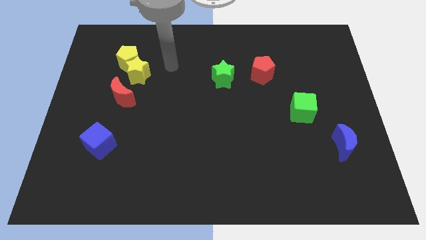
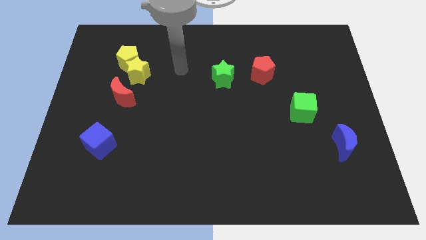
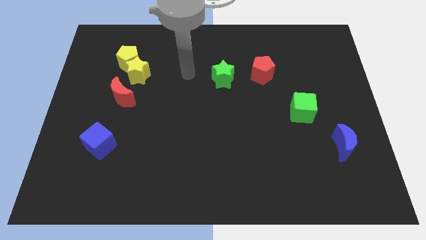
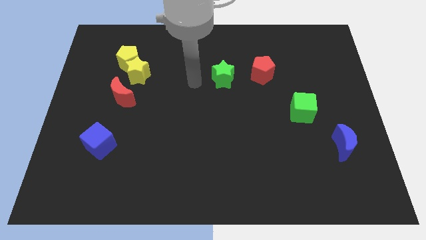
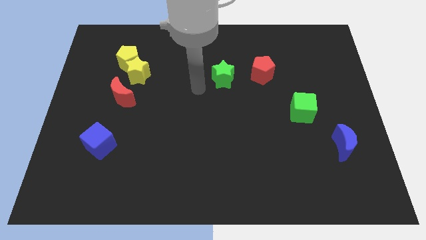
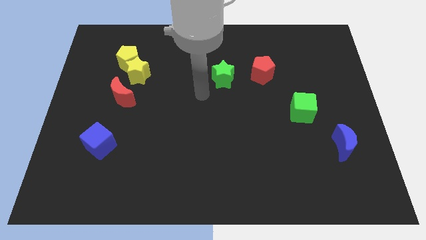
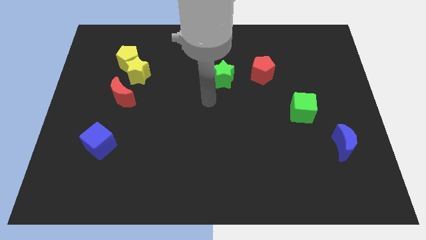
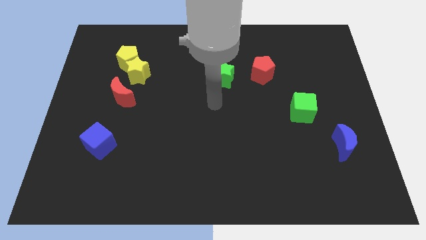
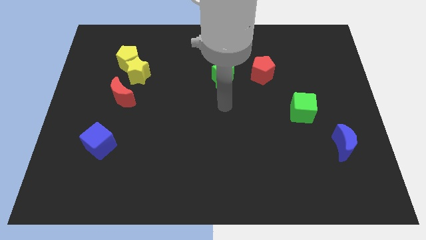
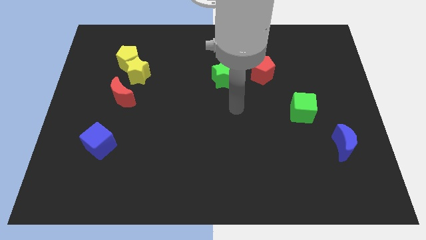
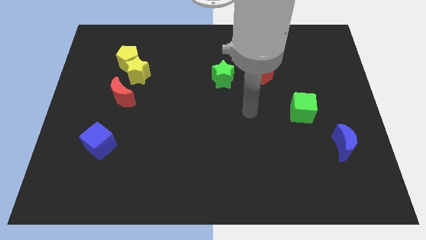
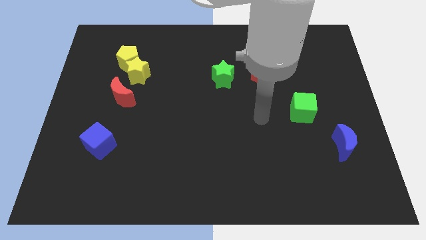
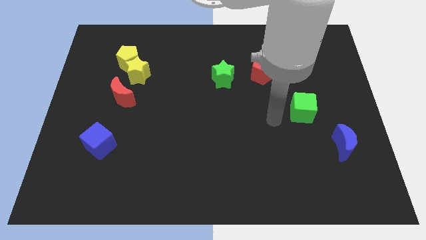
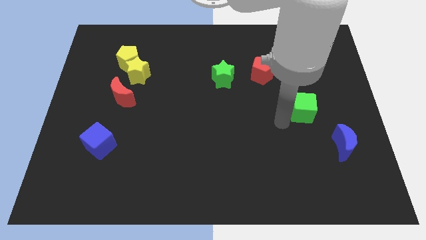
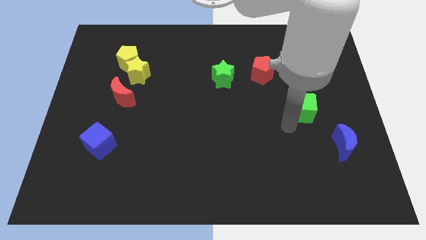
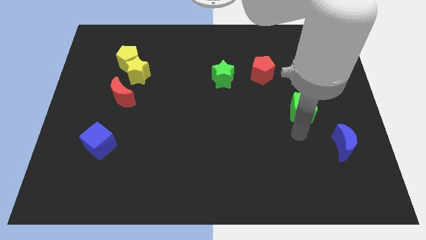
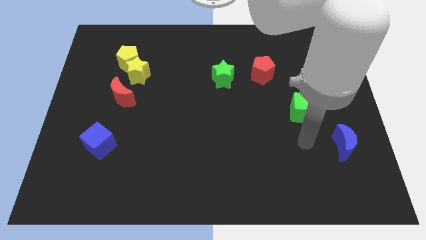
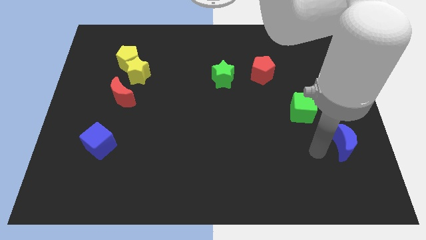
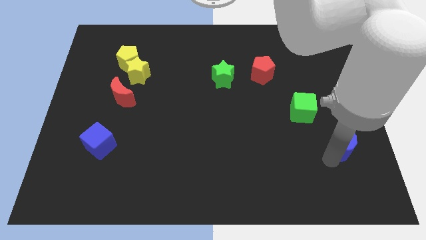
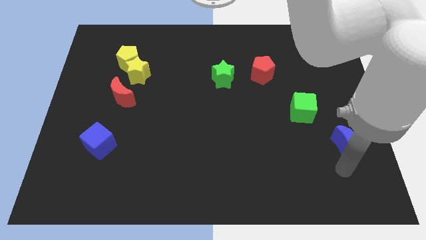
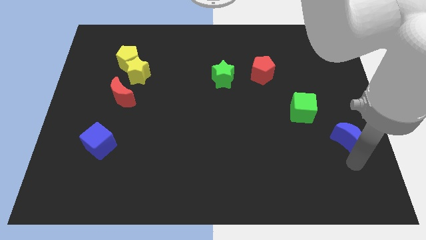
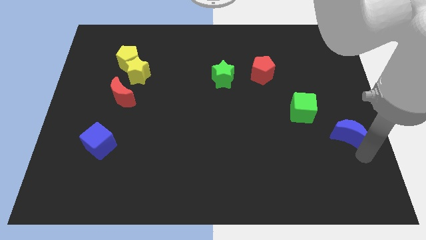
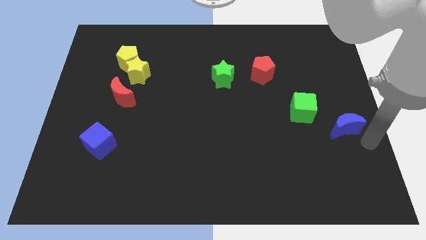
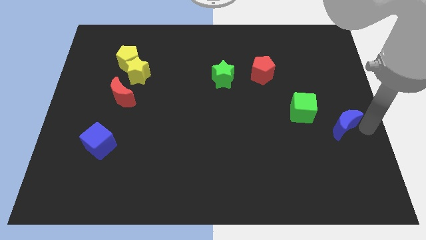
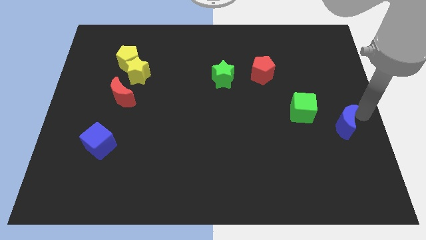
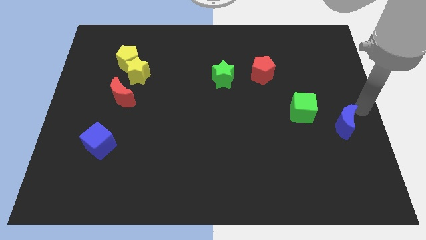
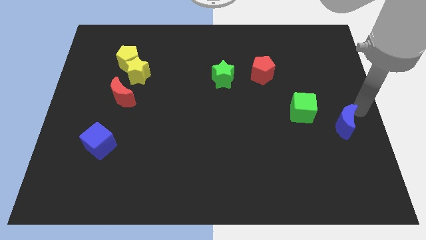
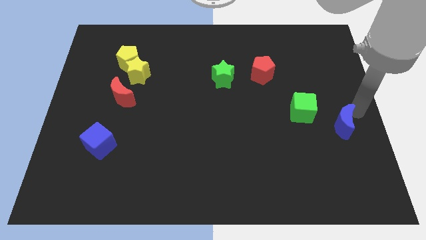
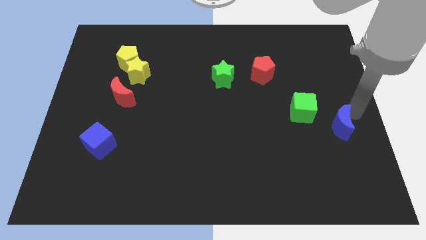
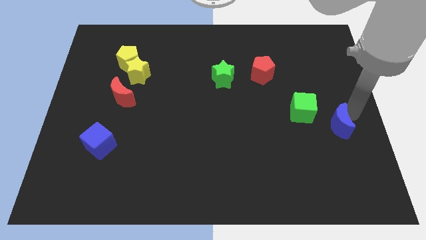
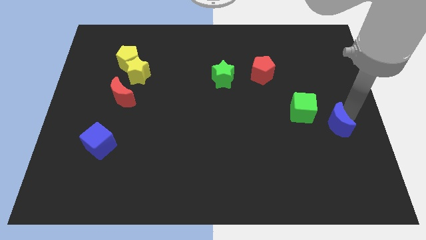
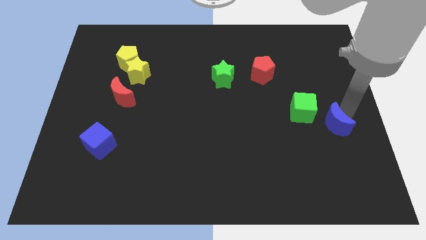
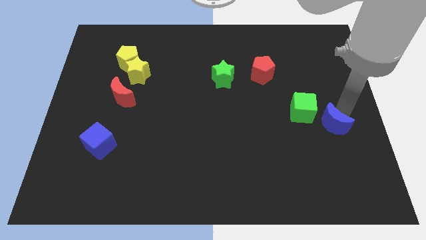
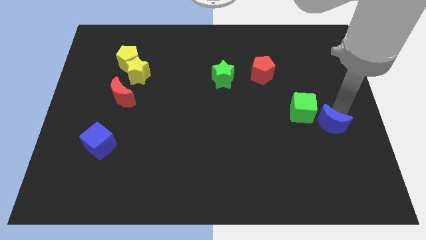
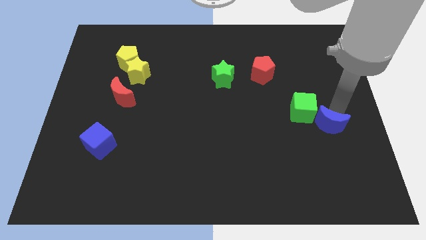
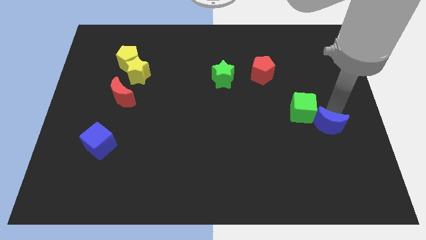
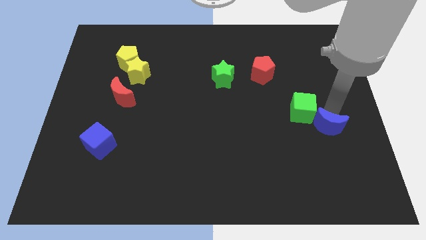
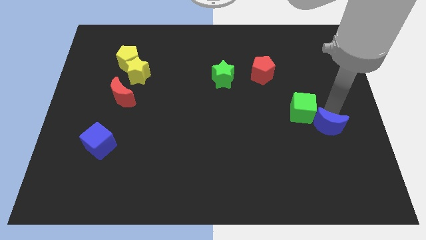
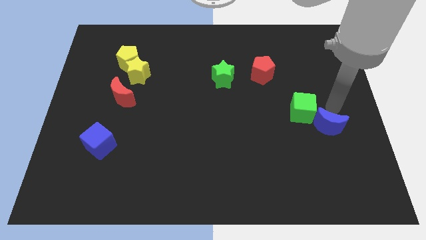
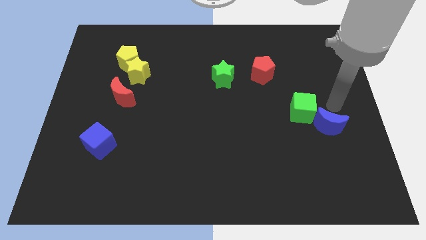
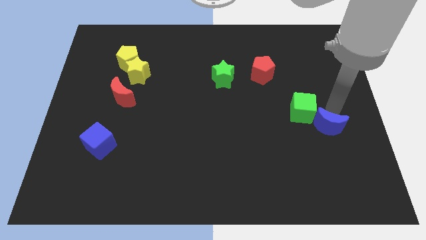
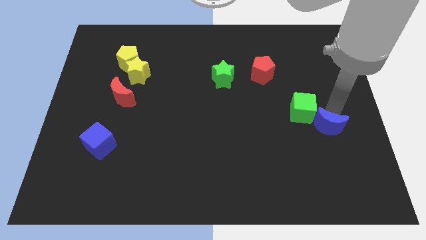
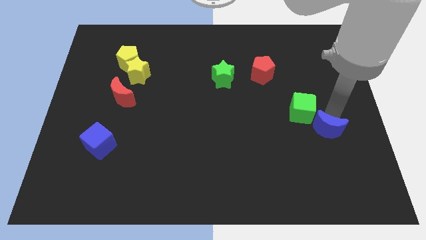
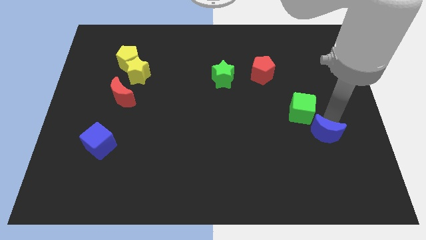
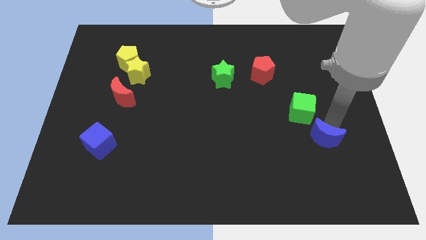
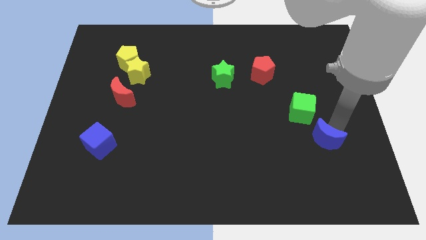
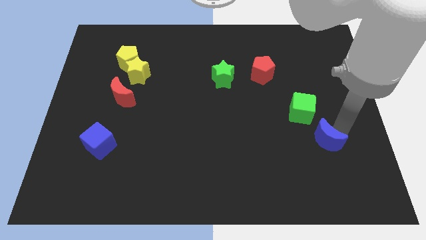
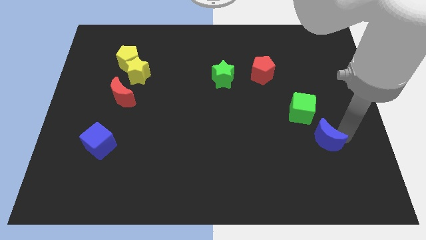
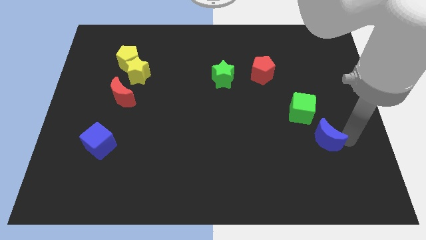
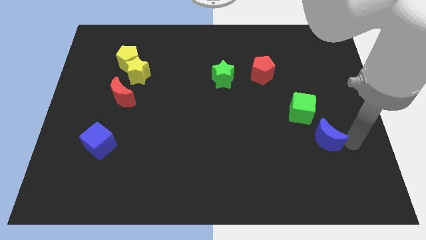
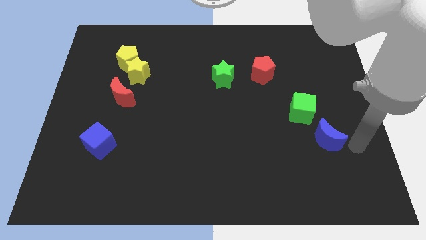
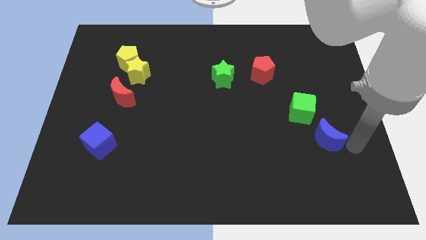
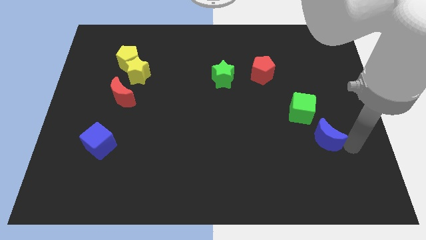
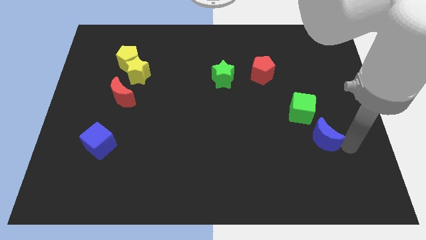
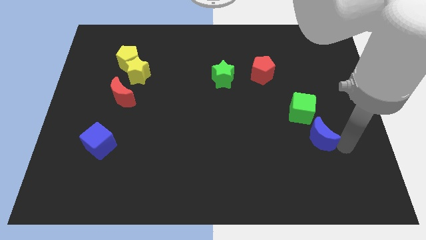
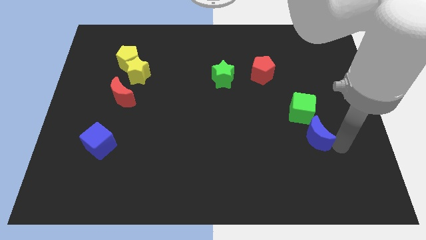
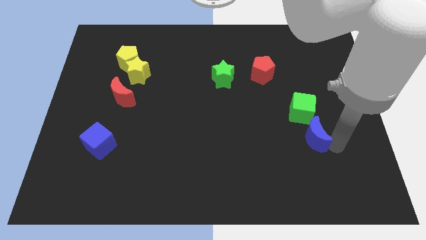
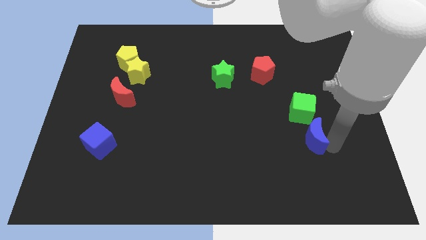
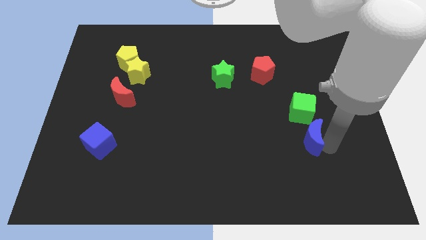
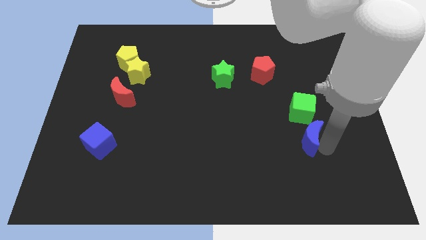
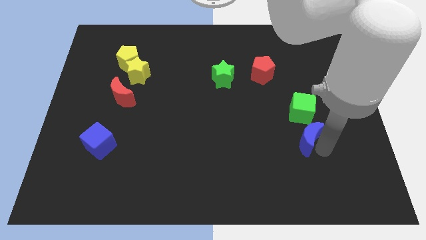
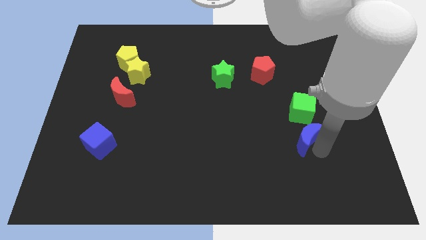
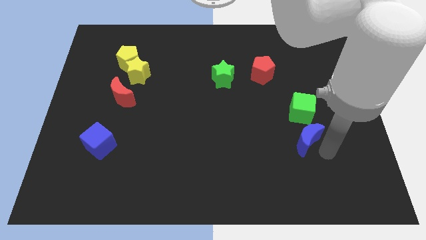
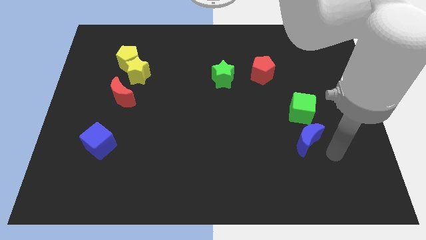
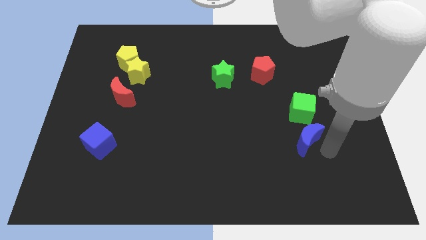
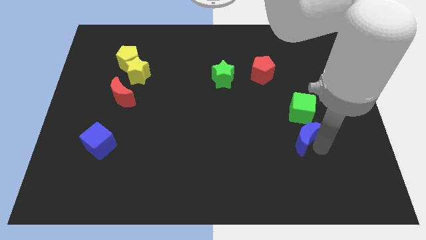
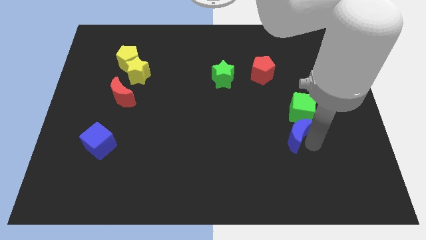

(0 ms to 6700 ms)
slide the blue moon to the bottom left side of the green cube
